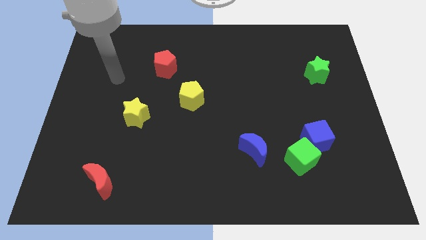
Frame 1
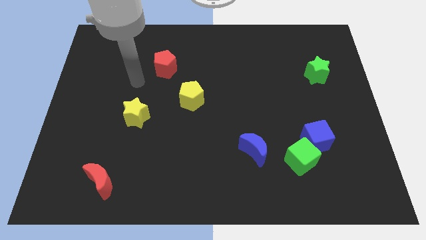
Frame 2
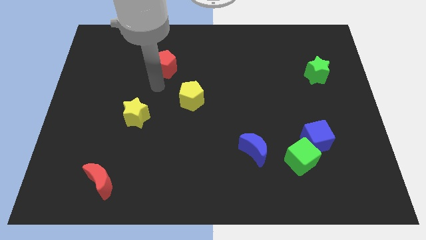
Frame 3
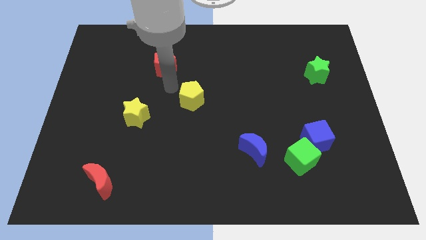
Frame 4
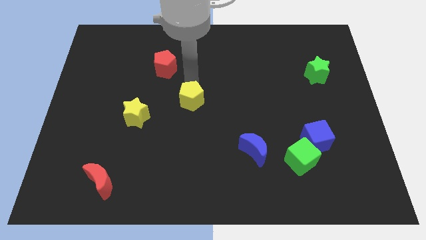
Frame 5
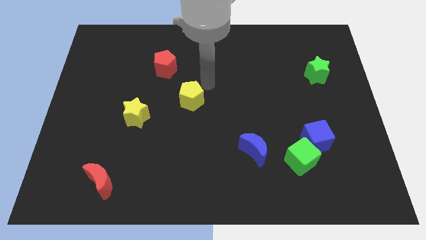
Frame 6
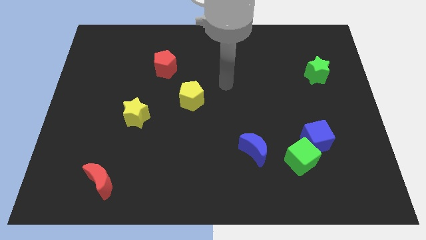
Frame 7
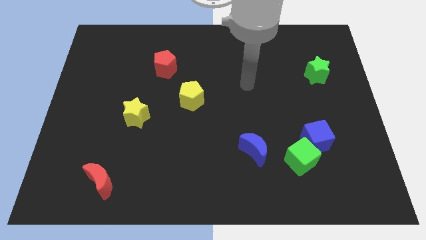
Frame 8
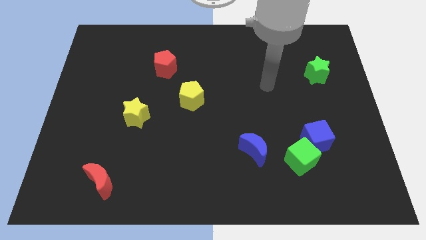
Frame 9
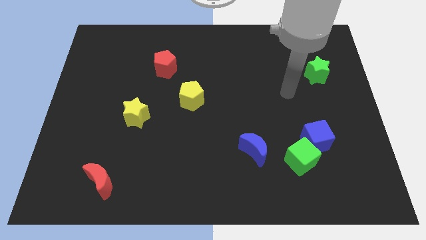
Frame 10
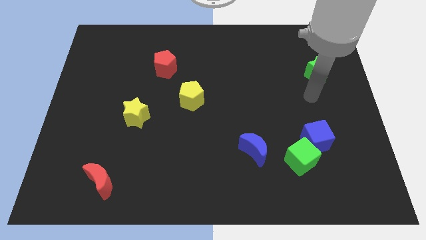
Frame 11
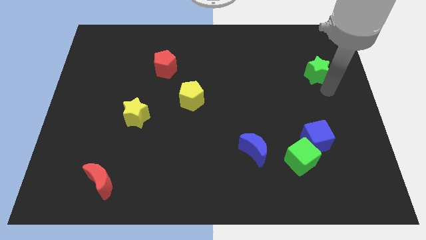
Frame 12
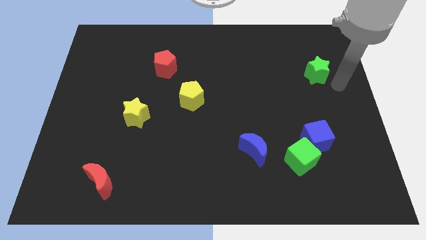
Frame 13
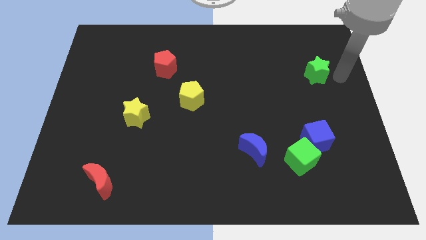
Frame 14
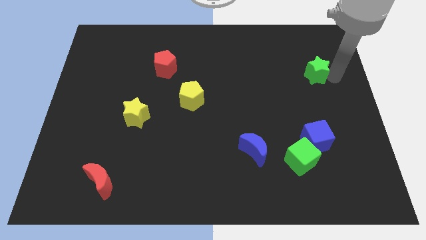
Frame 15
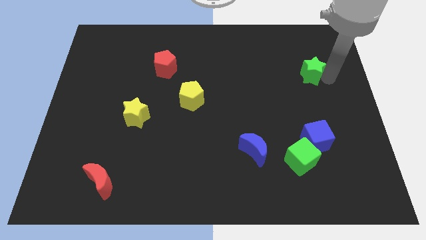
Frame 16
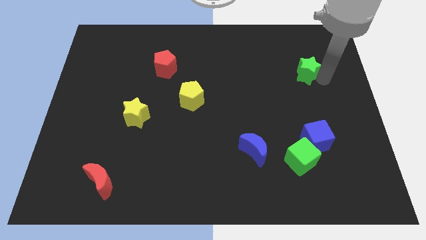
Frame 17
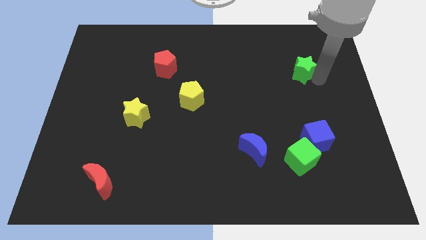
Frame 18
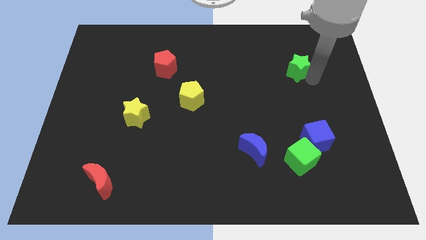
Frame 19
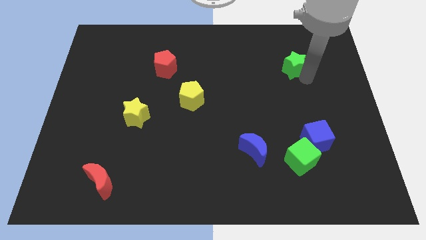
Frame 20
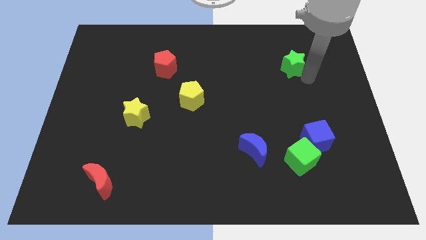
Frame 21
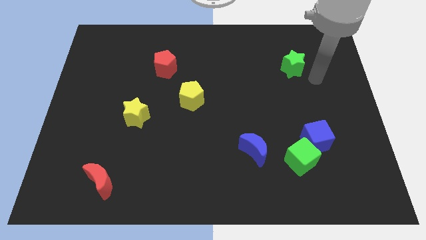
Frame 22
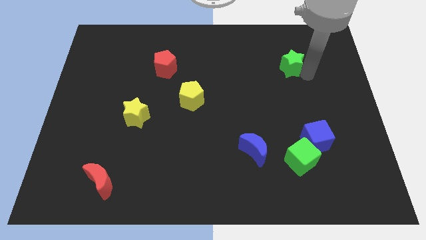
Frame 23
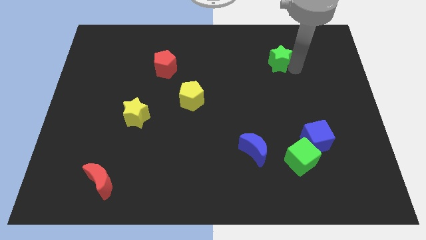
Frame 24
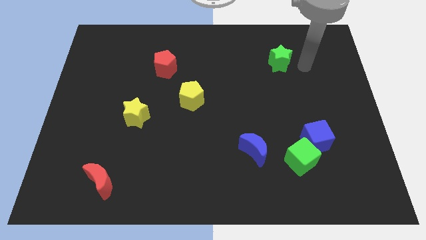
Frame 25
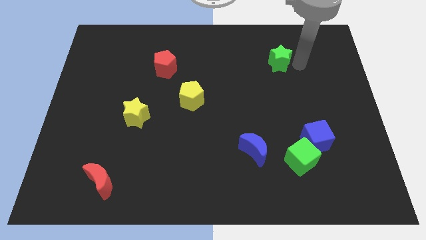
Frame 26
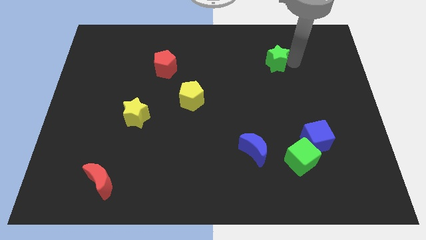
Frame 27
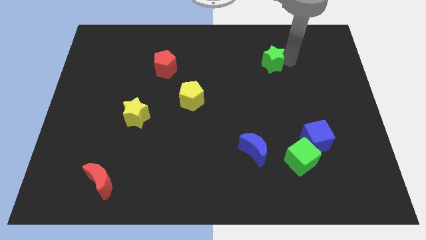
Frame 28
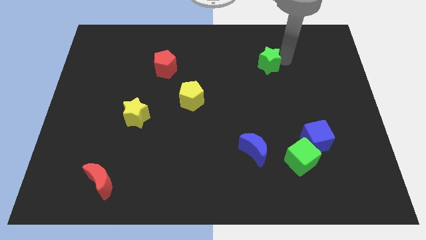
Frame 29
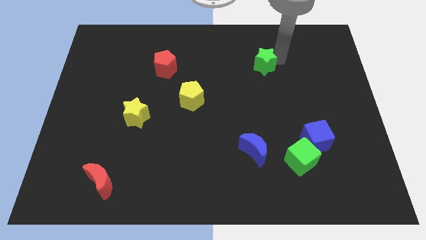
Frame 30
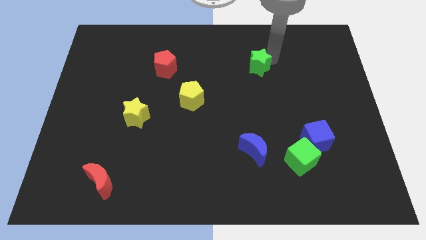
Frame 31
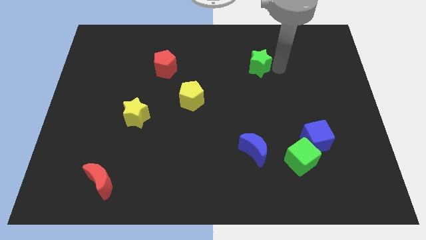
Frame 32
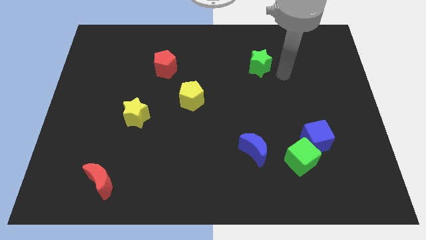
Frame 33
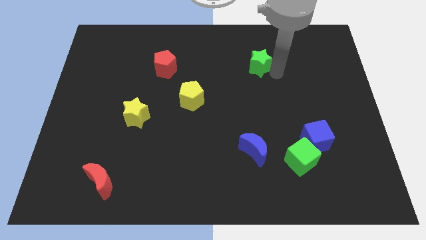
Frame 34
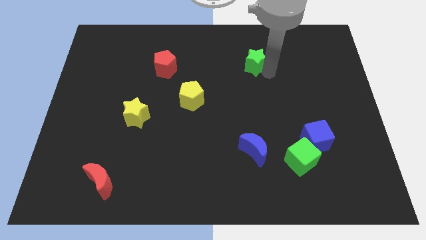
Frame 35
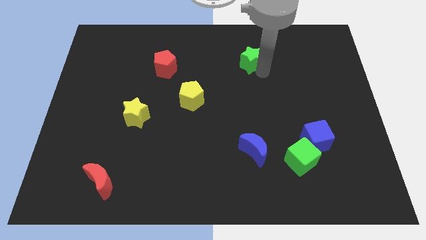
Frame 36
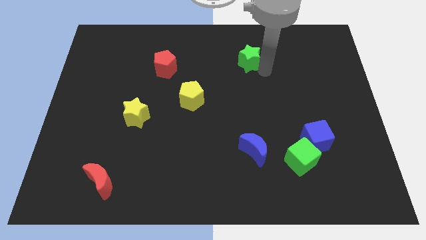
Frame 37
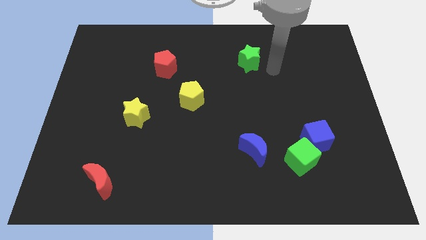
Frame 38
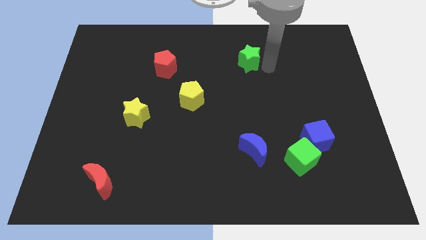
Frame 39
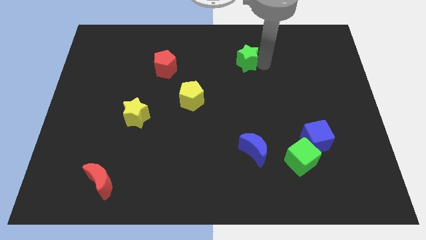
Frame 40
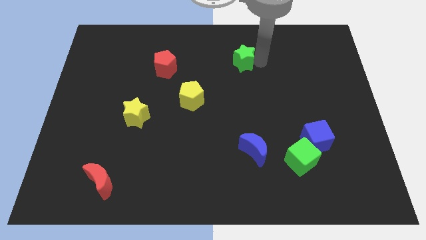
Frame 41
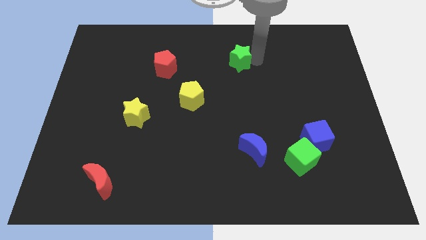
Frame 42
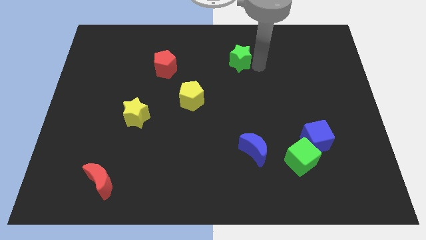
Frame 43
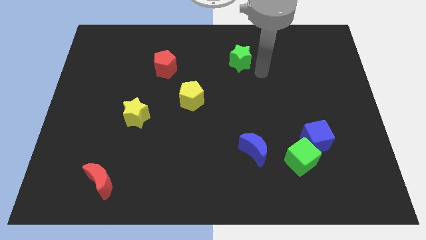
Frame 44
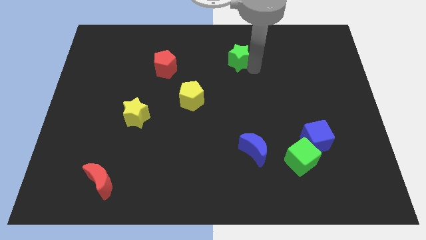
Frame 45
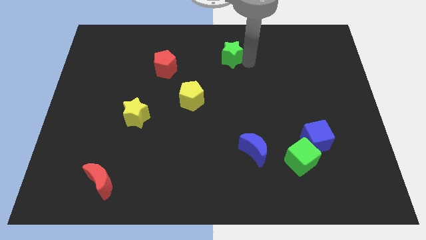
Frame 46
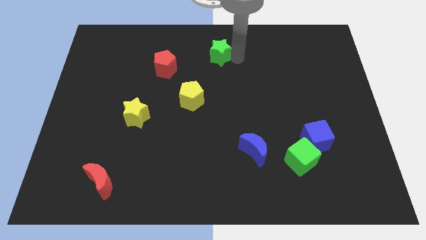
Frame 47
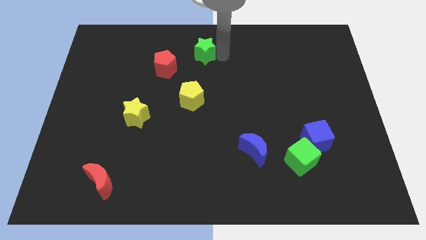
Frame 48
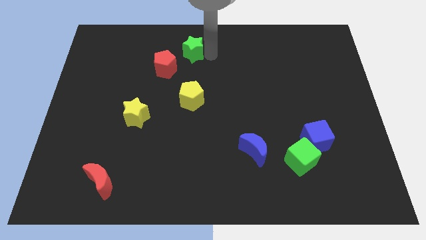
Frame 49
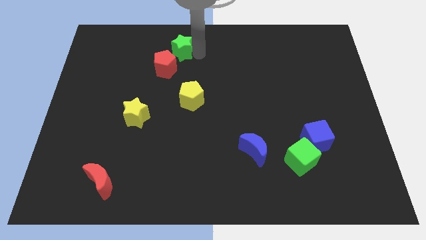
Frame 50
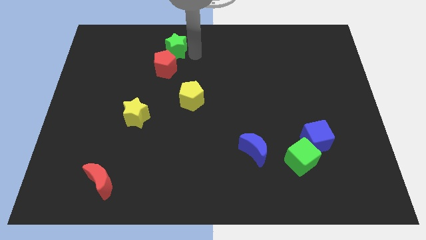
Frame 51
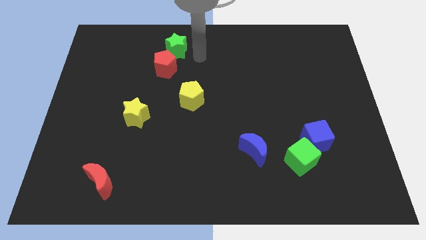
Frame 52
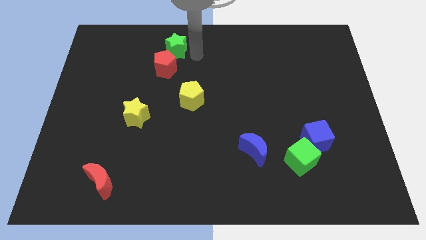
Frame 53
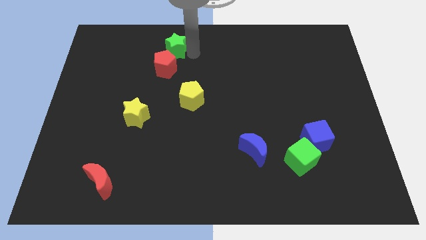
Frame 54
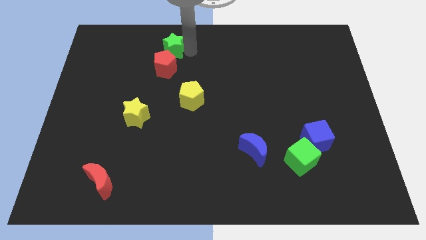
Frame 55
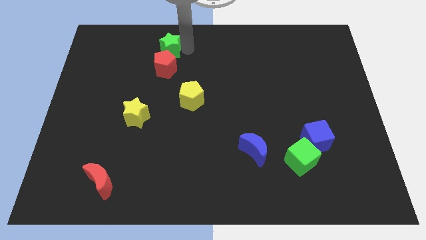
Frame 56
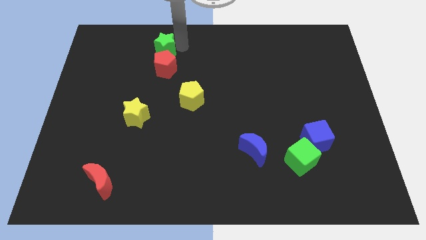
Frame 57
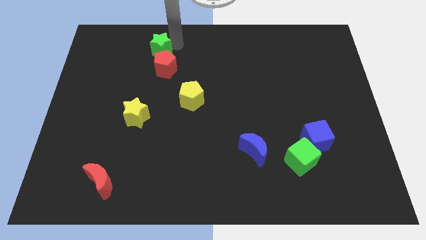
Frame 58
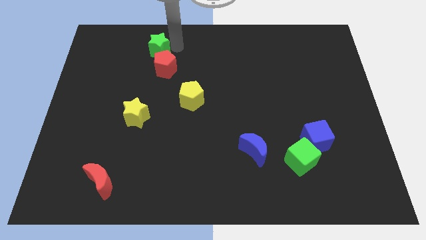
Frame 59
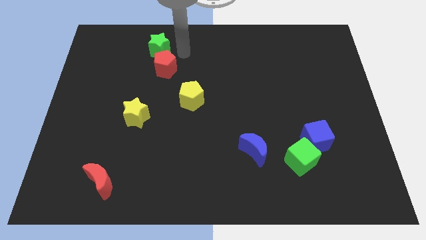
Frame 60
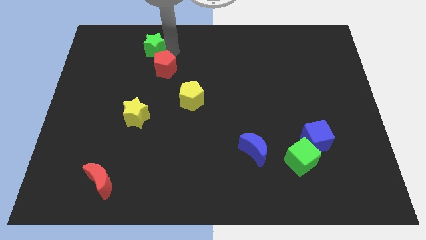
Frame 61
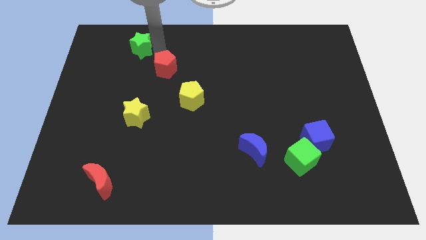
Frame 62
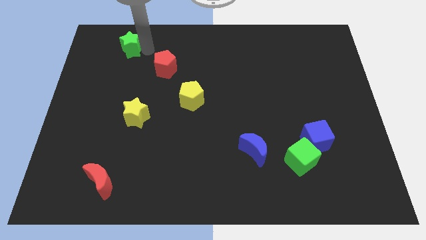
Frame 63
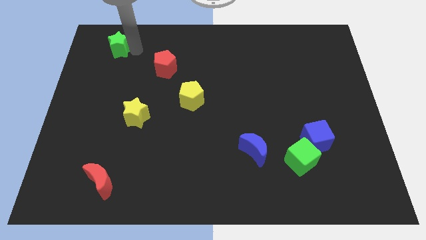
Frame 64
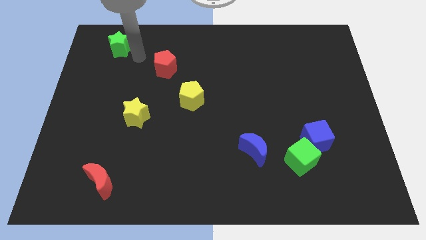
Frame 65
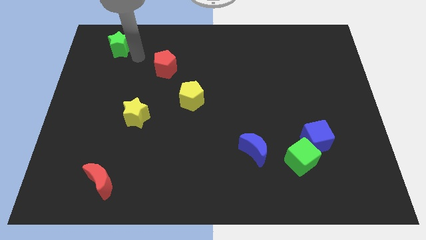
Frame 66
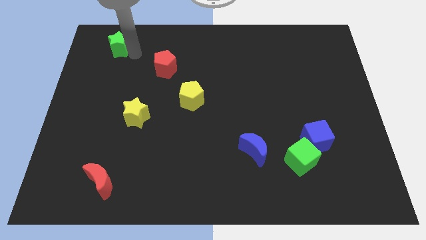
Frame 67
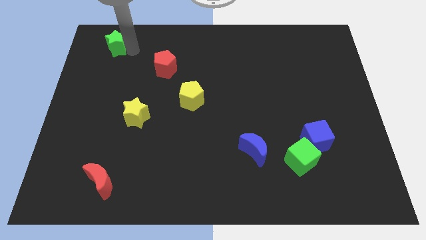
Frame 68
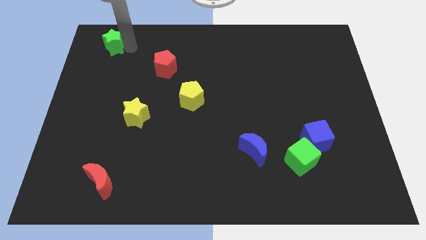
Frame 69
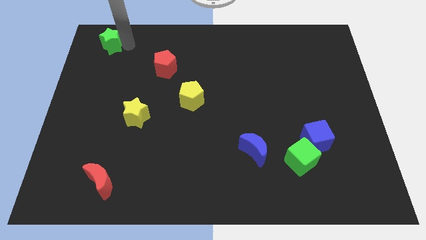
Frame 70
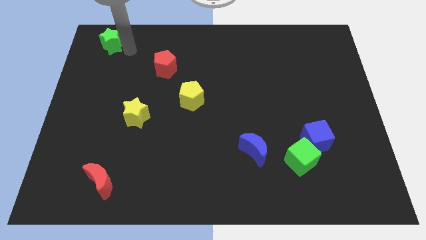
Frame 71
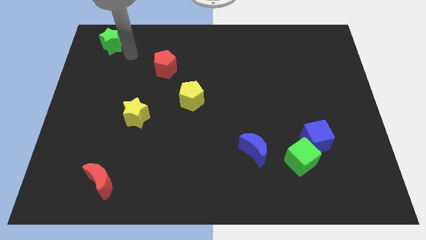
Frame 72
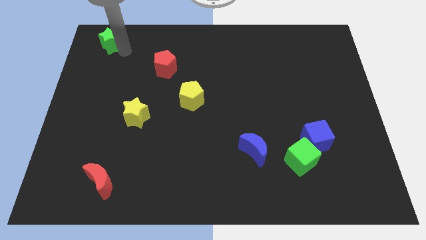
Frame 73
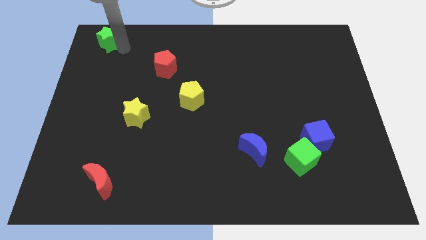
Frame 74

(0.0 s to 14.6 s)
move the green star to the upper left corner

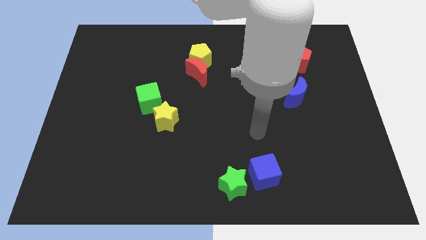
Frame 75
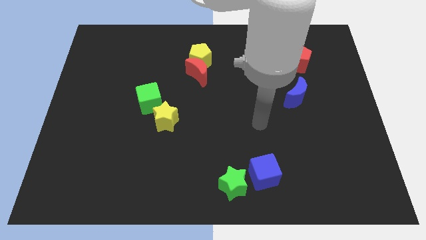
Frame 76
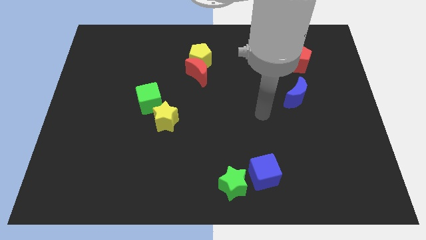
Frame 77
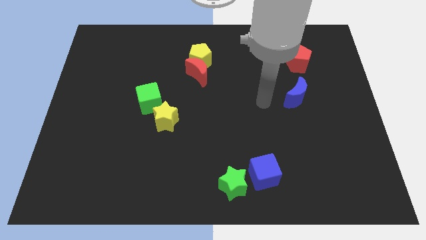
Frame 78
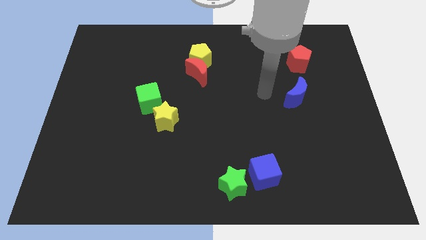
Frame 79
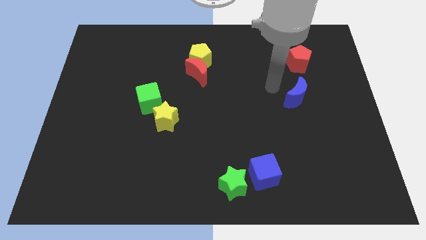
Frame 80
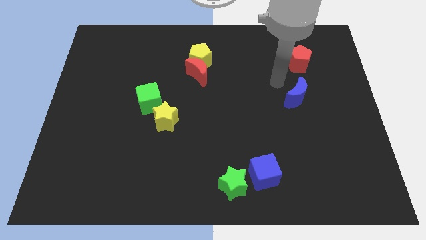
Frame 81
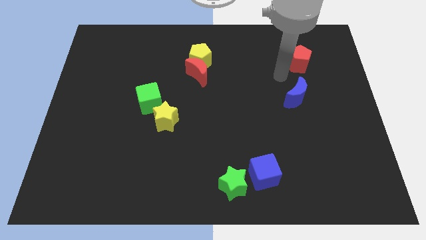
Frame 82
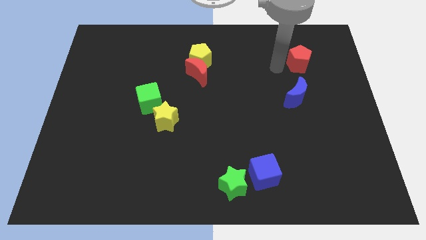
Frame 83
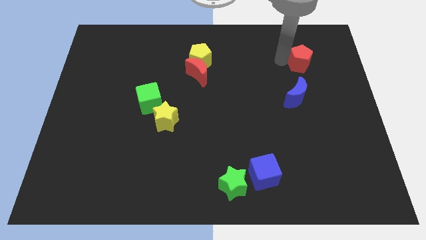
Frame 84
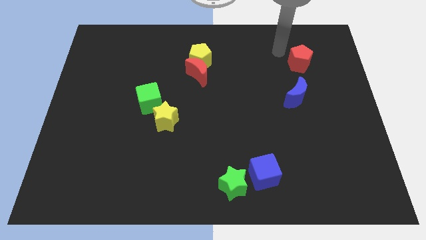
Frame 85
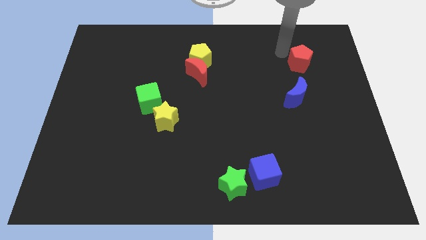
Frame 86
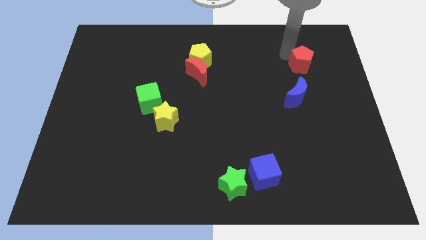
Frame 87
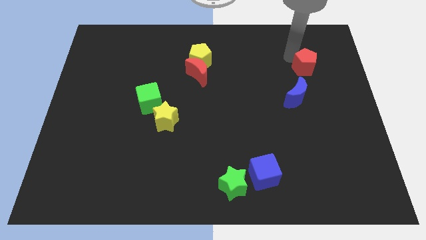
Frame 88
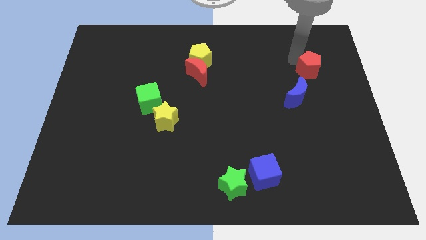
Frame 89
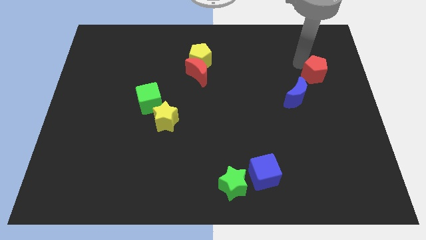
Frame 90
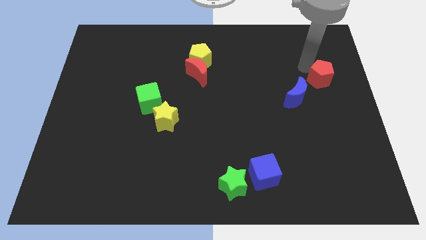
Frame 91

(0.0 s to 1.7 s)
put the red pentagon to the center right
